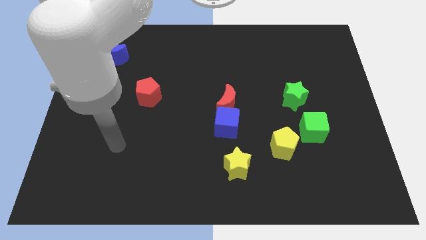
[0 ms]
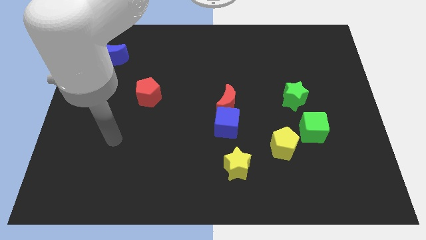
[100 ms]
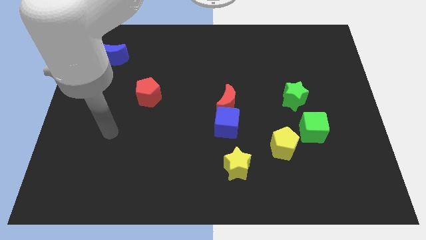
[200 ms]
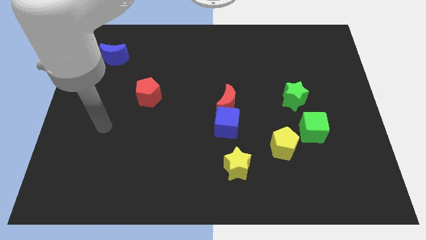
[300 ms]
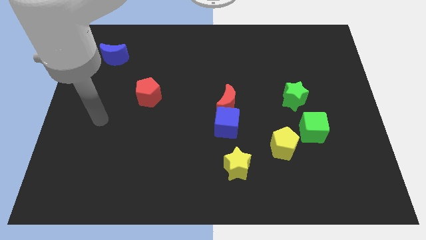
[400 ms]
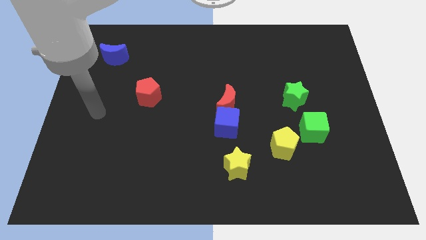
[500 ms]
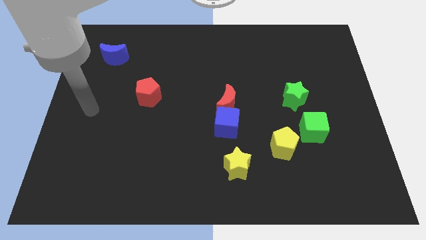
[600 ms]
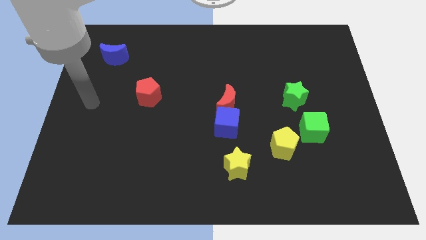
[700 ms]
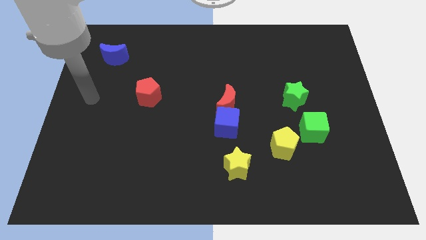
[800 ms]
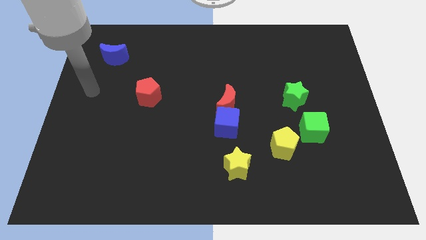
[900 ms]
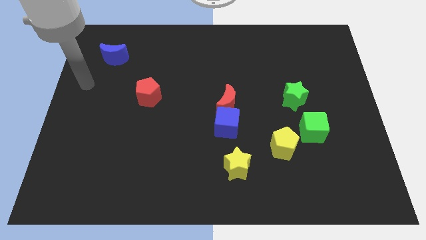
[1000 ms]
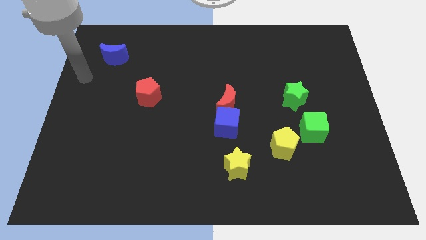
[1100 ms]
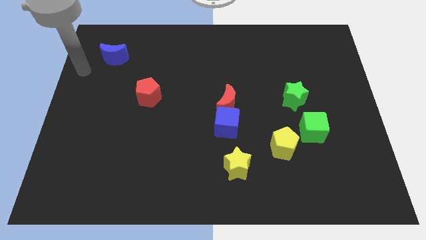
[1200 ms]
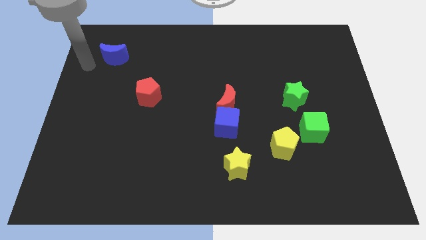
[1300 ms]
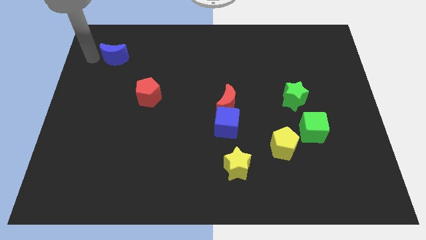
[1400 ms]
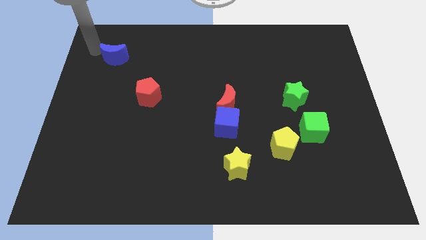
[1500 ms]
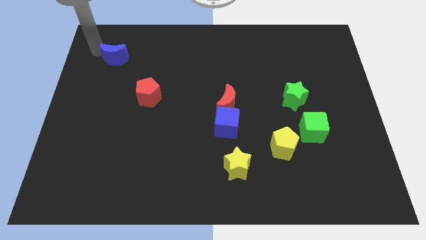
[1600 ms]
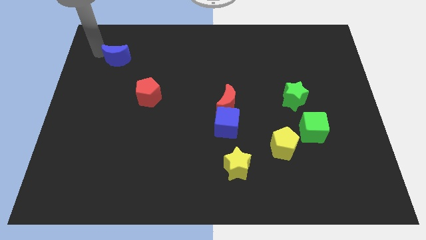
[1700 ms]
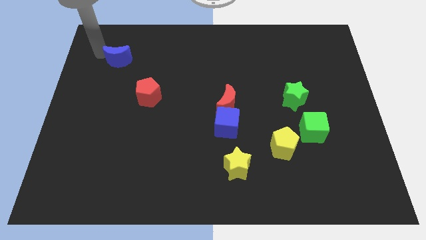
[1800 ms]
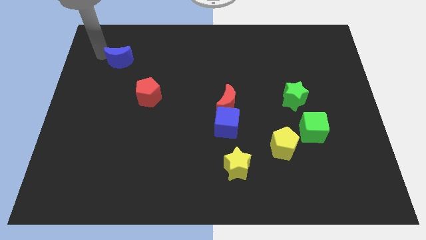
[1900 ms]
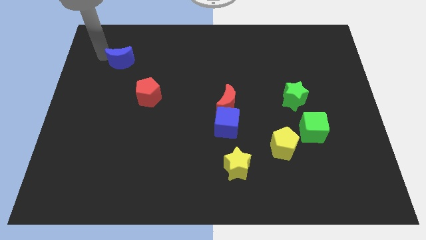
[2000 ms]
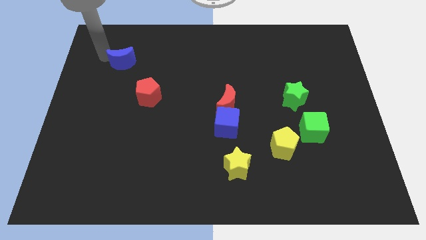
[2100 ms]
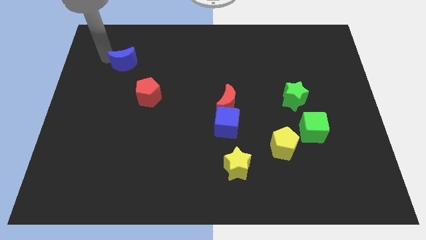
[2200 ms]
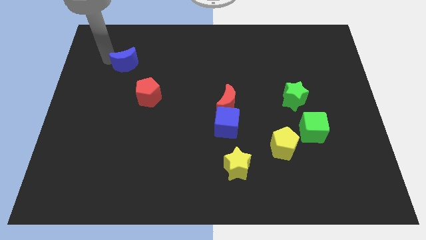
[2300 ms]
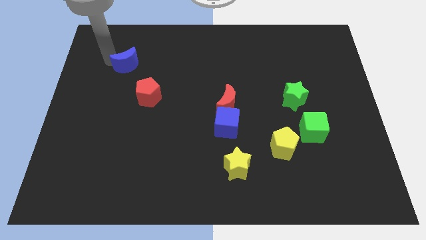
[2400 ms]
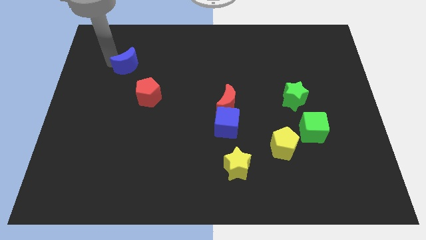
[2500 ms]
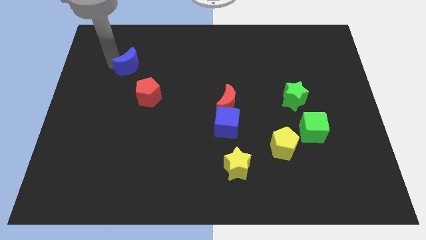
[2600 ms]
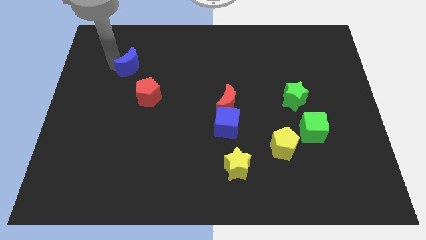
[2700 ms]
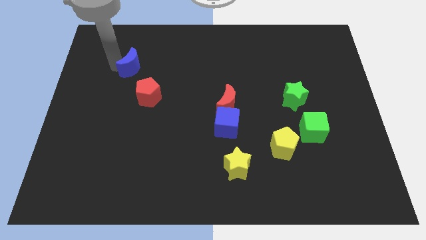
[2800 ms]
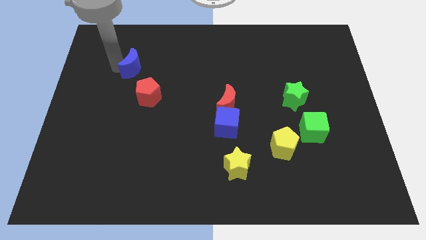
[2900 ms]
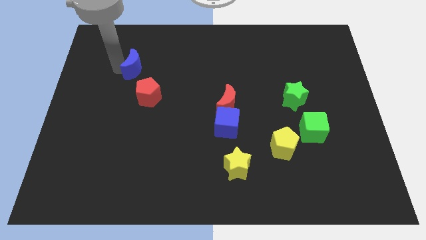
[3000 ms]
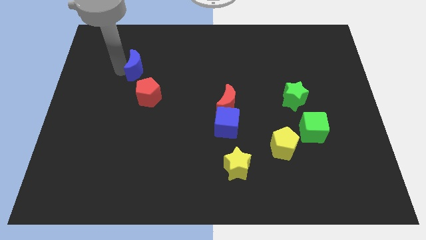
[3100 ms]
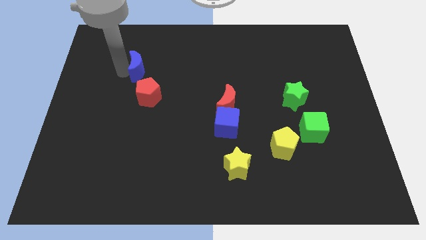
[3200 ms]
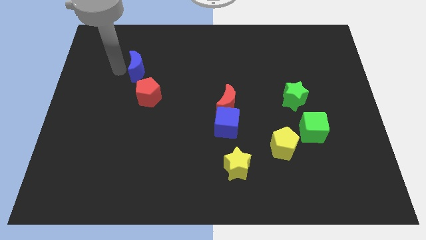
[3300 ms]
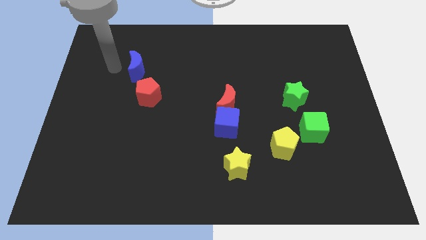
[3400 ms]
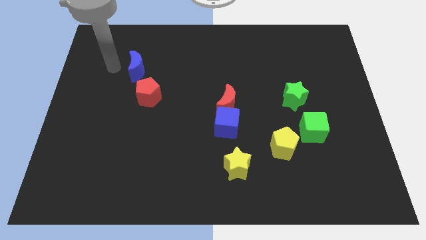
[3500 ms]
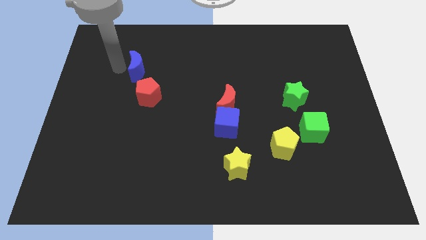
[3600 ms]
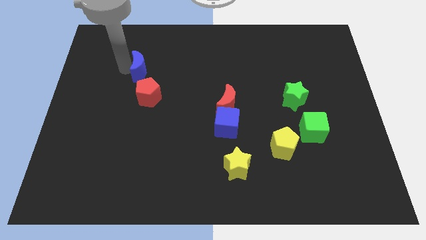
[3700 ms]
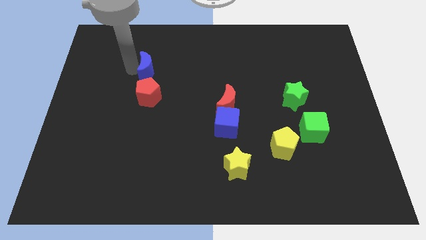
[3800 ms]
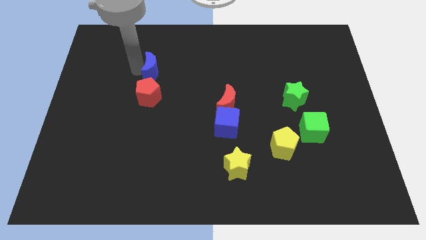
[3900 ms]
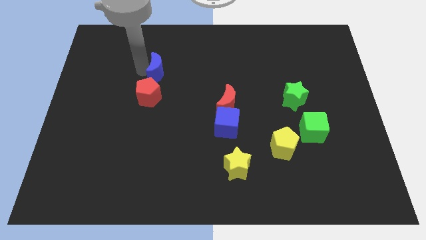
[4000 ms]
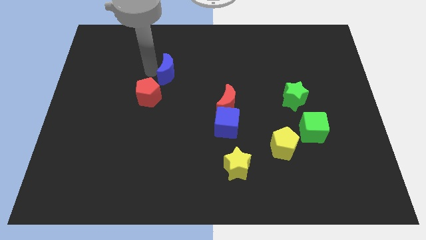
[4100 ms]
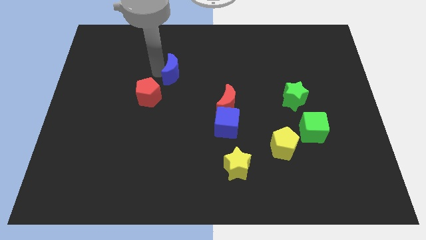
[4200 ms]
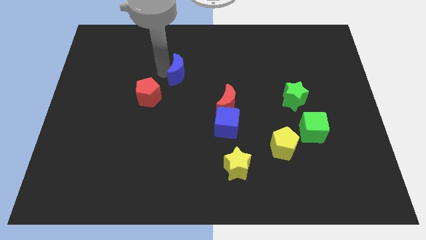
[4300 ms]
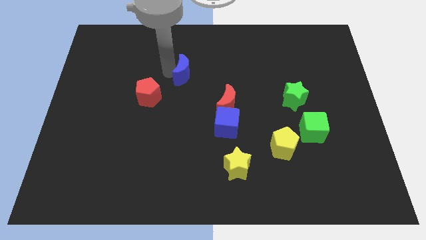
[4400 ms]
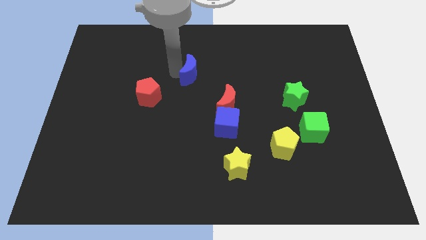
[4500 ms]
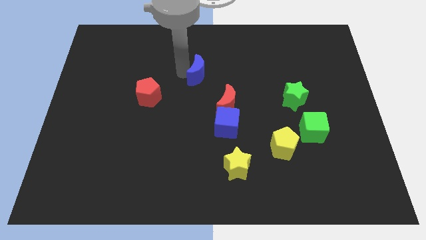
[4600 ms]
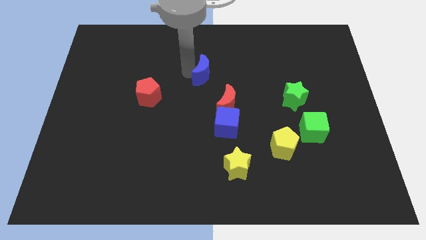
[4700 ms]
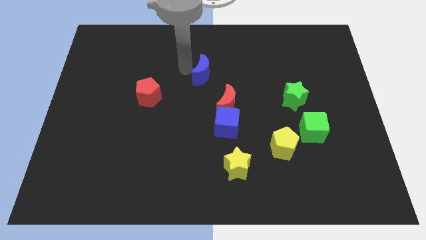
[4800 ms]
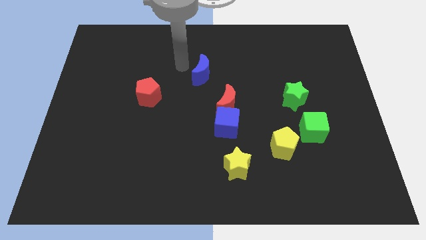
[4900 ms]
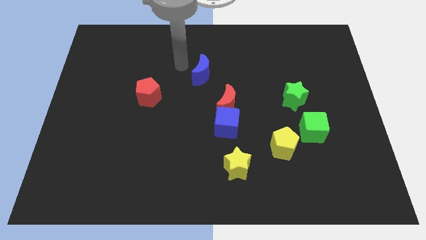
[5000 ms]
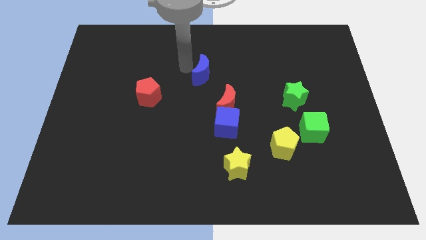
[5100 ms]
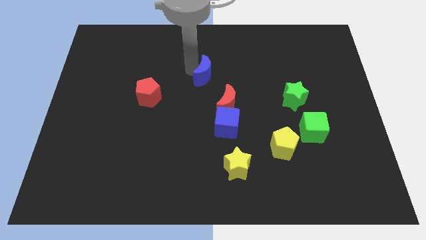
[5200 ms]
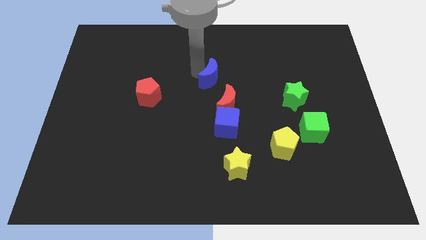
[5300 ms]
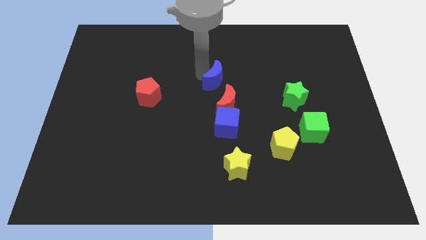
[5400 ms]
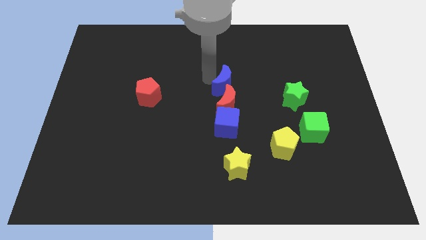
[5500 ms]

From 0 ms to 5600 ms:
put the blue moon to the top right of the red moon

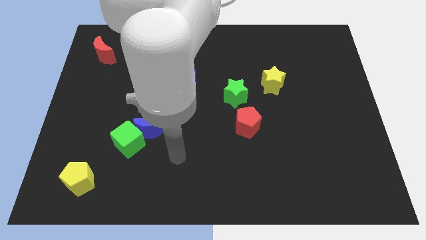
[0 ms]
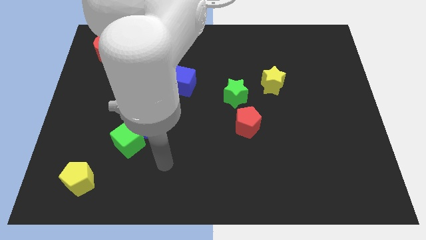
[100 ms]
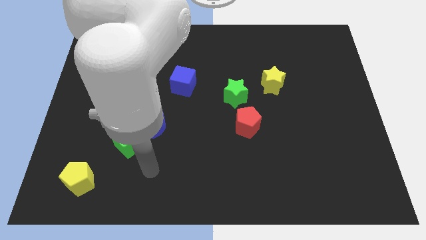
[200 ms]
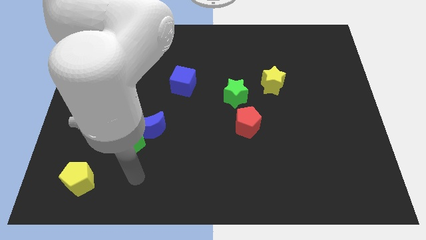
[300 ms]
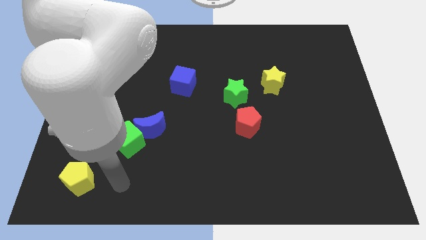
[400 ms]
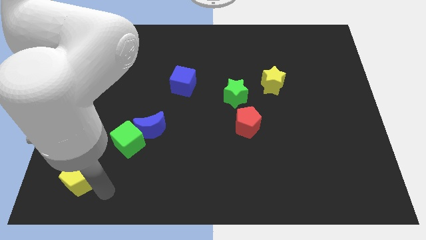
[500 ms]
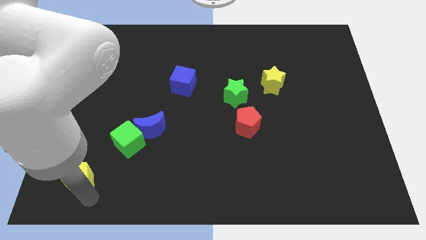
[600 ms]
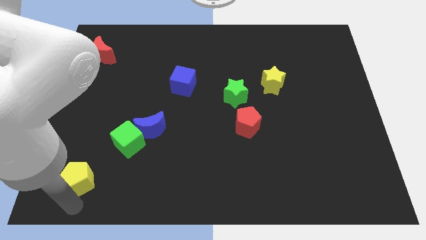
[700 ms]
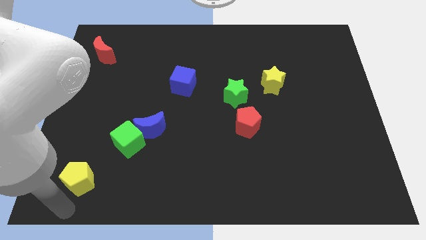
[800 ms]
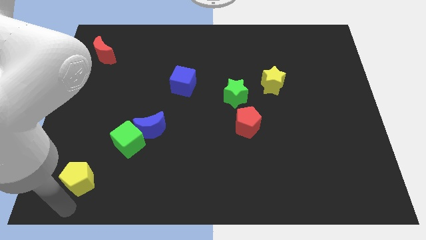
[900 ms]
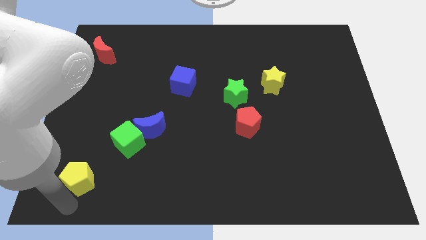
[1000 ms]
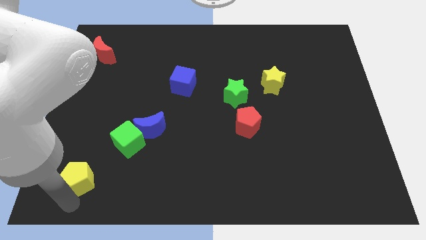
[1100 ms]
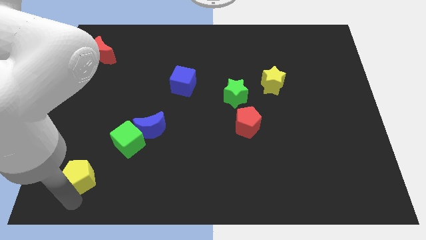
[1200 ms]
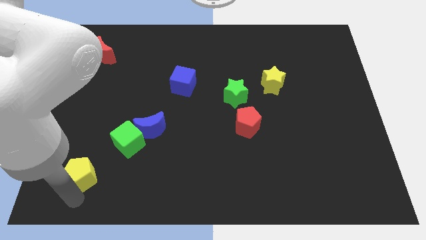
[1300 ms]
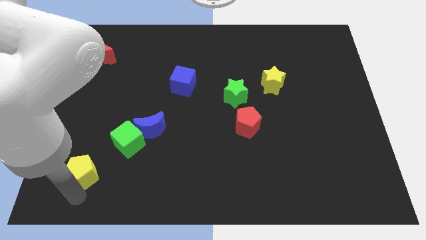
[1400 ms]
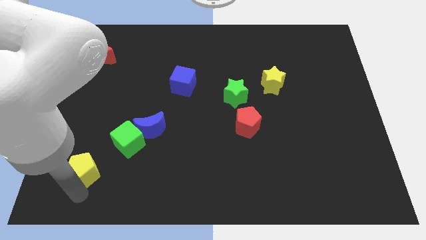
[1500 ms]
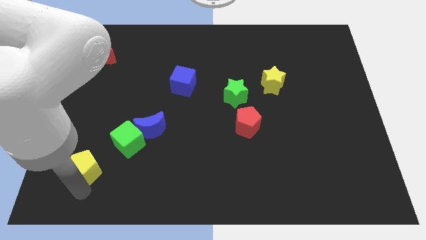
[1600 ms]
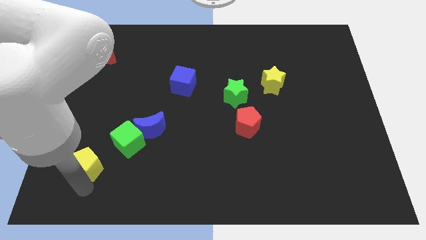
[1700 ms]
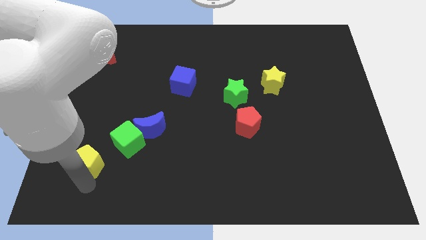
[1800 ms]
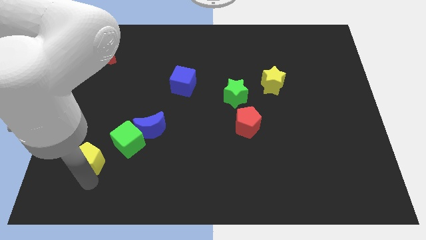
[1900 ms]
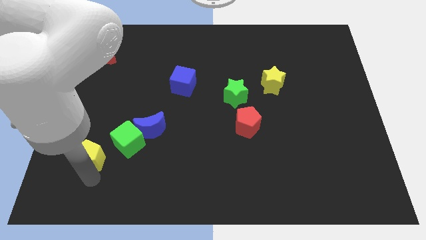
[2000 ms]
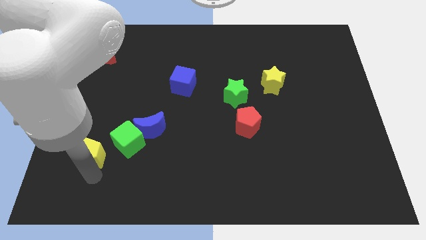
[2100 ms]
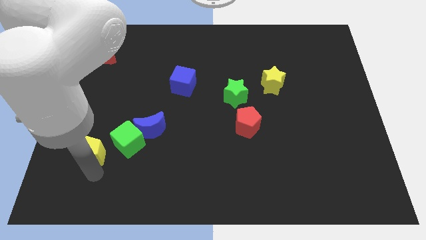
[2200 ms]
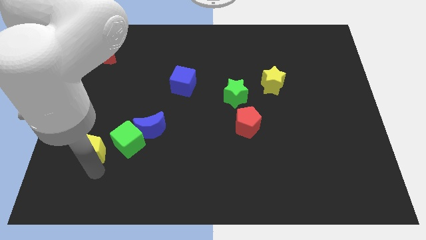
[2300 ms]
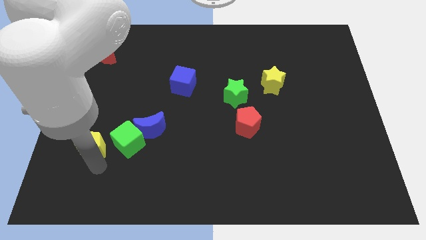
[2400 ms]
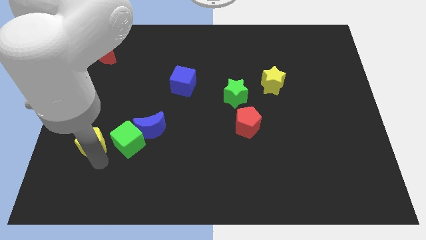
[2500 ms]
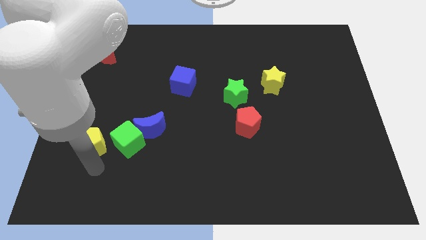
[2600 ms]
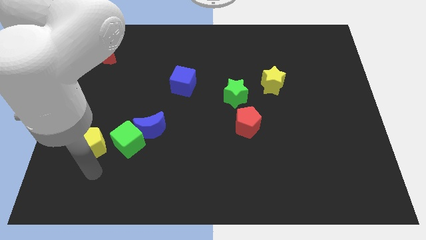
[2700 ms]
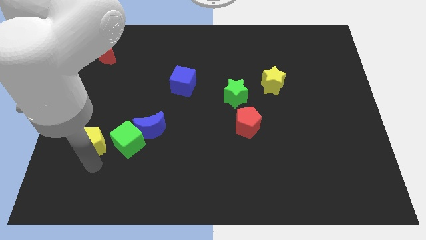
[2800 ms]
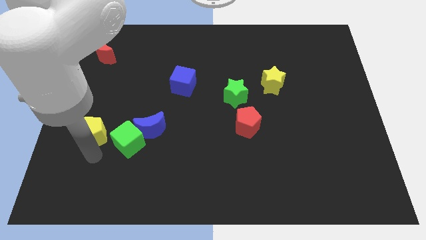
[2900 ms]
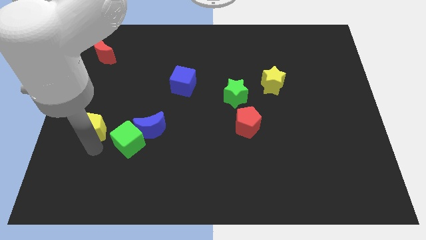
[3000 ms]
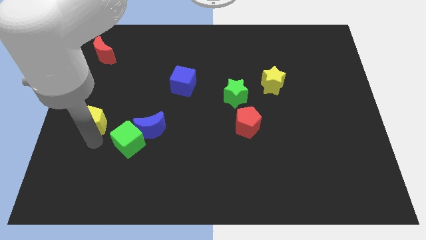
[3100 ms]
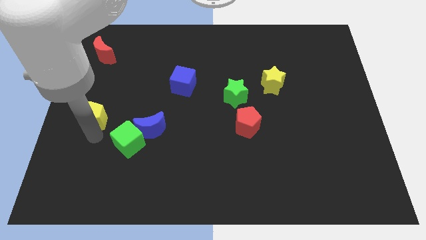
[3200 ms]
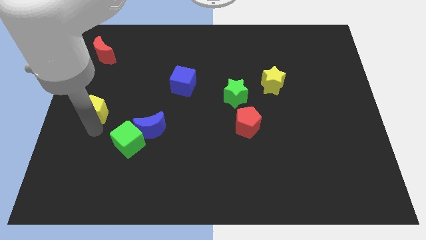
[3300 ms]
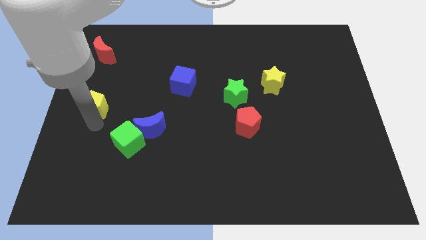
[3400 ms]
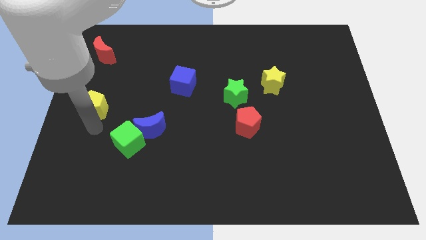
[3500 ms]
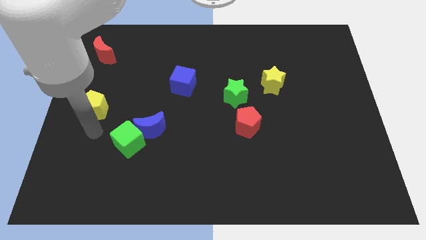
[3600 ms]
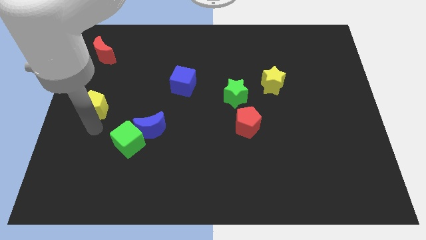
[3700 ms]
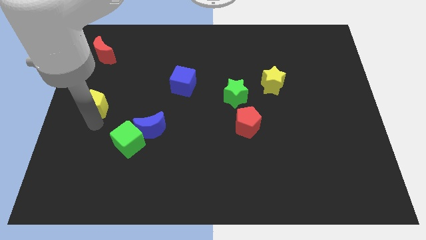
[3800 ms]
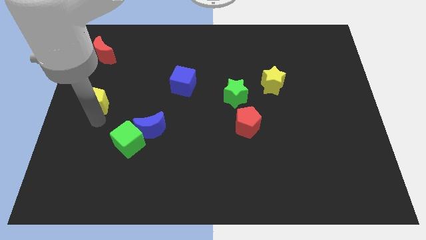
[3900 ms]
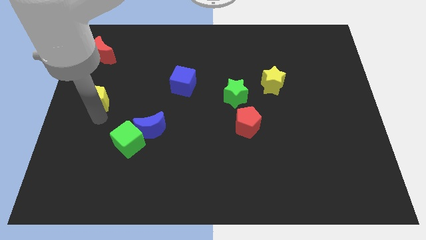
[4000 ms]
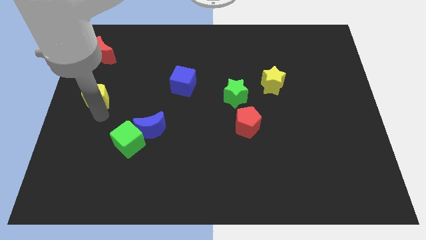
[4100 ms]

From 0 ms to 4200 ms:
push the yellow pentagon to the bottom side of the red moon
